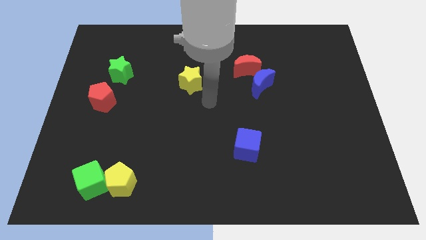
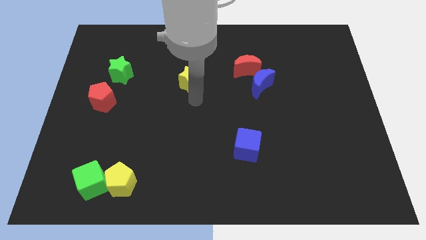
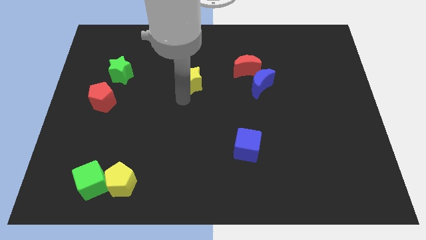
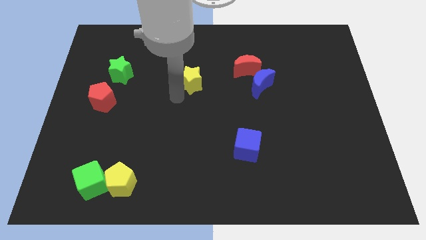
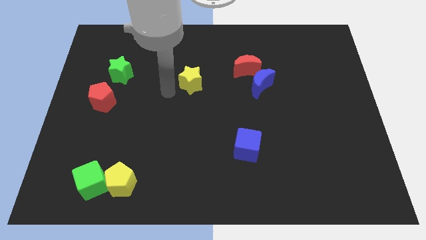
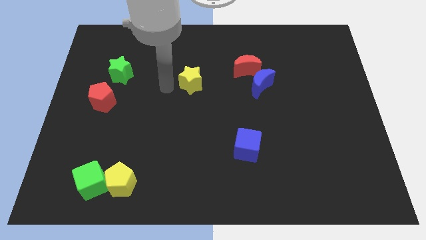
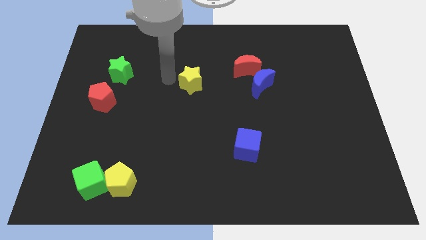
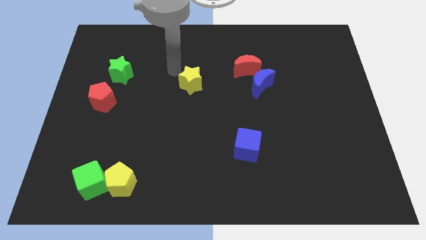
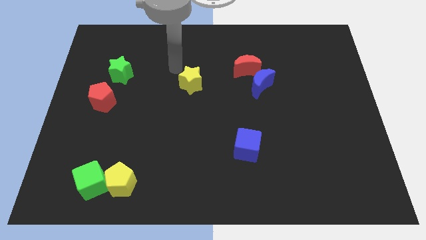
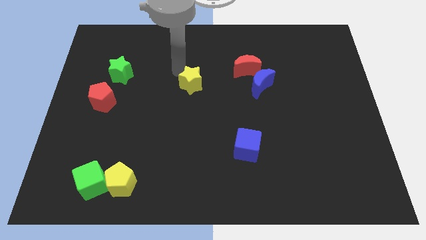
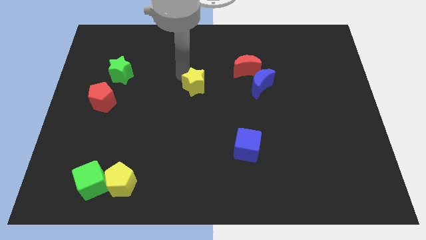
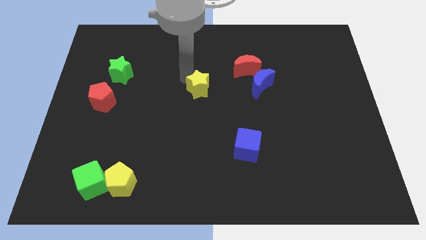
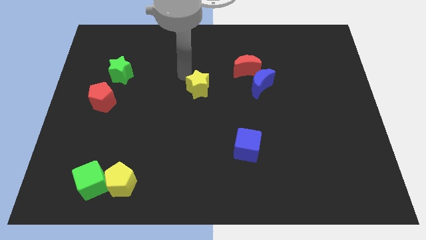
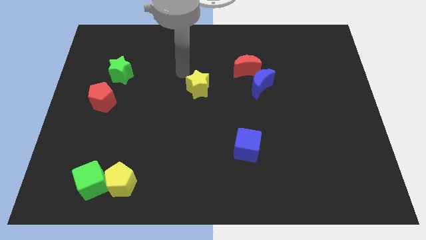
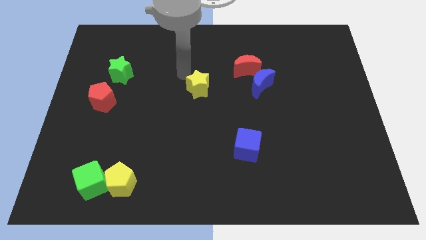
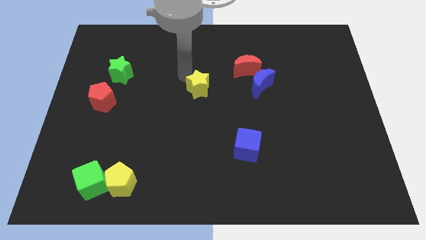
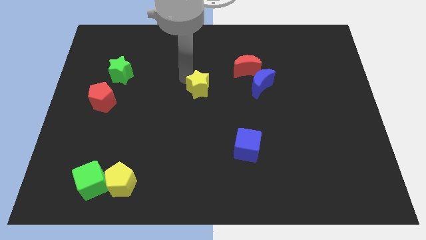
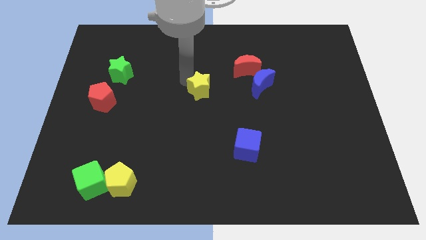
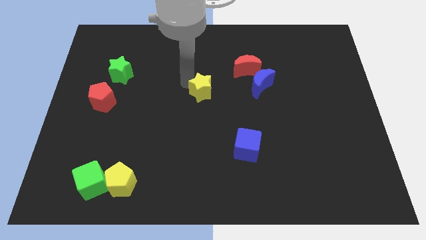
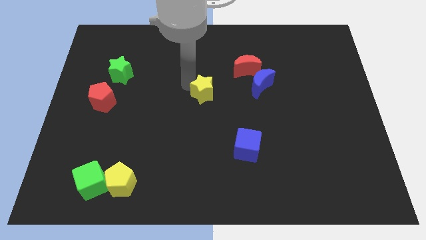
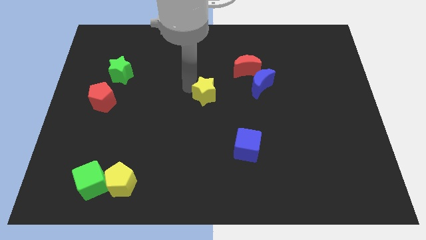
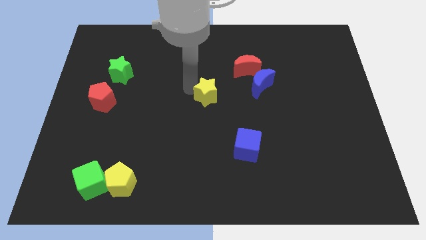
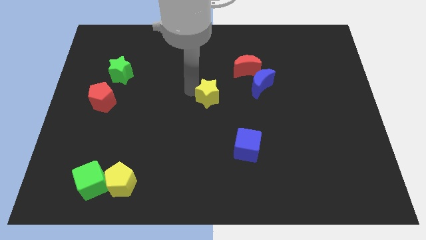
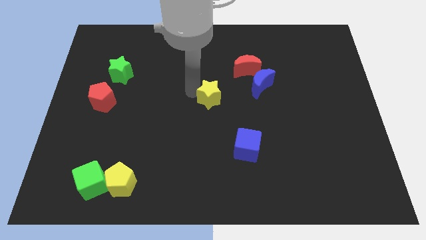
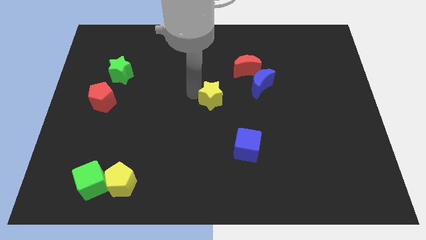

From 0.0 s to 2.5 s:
slide the yellow star diagonally downwards and right a little bit

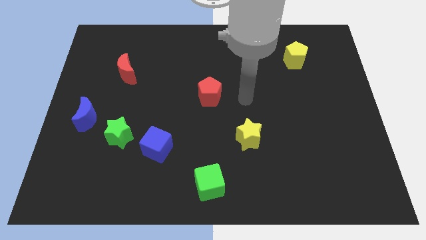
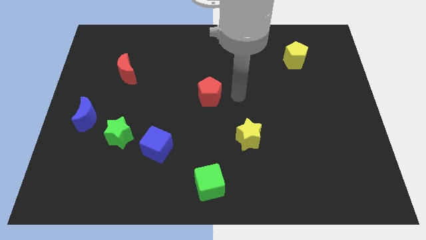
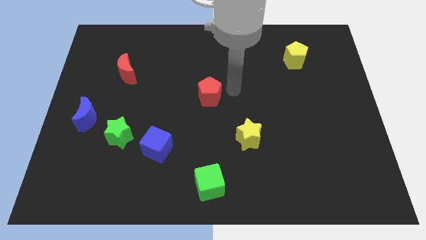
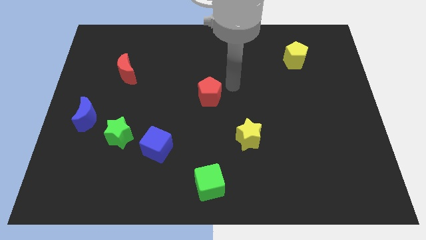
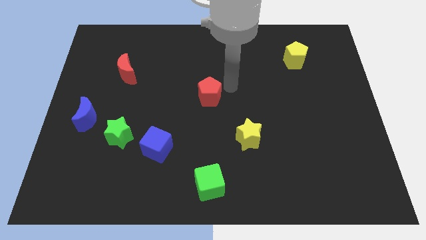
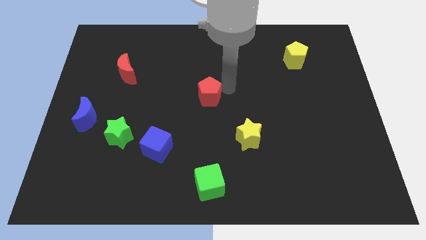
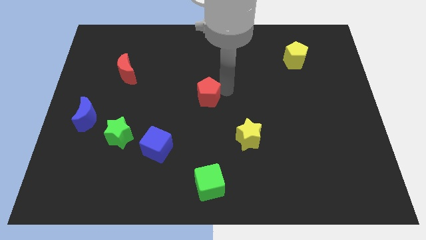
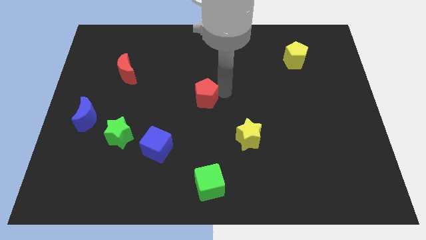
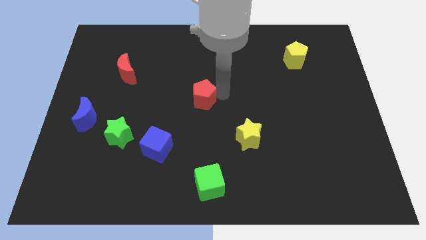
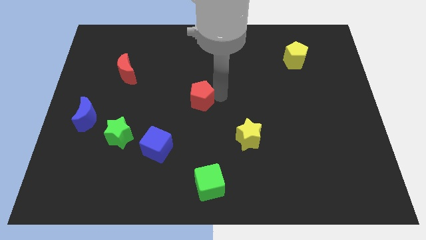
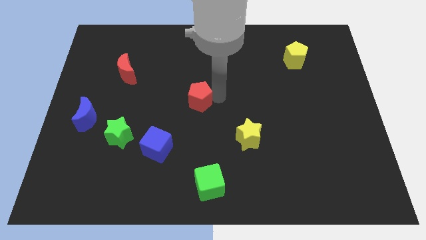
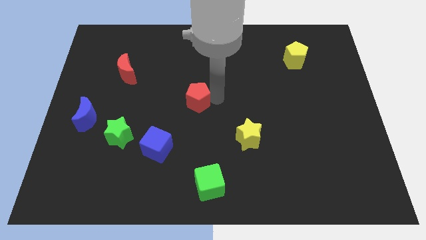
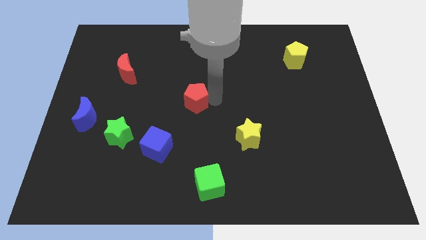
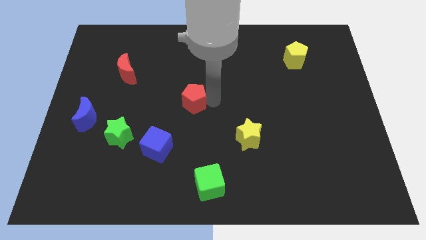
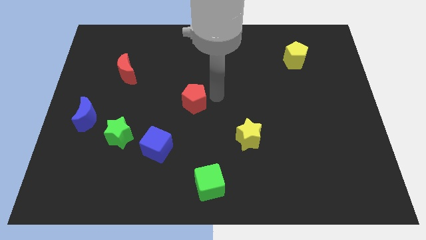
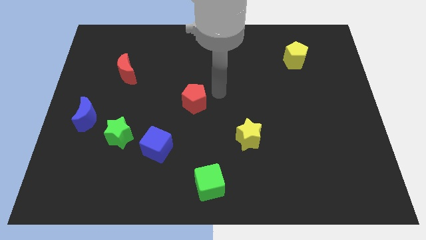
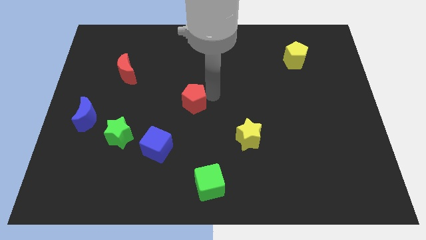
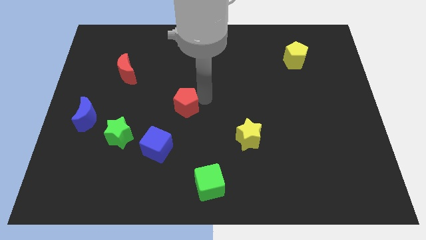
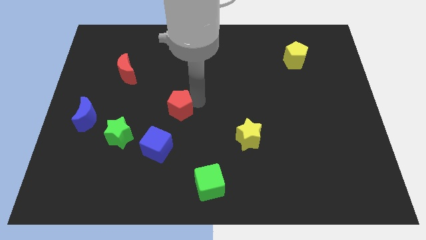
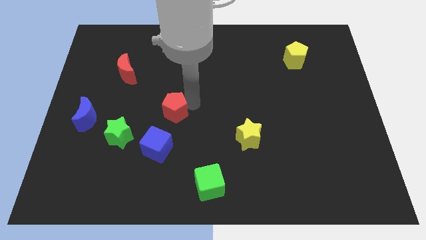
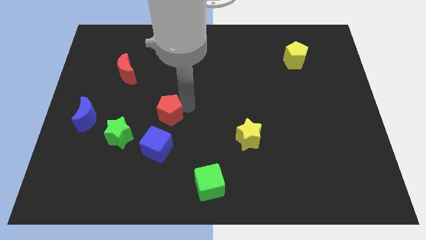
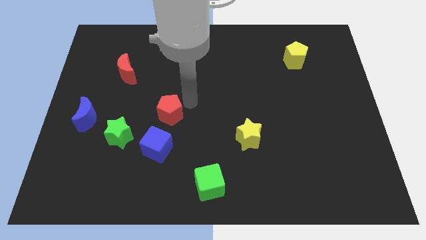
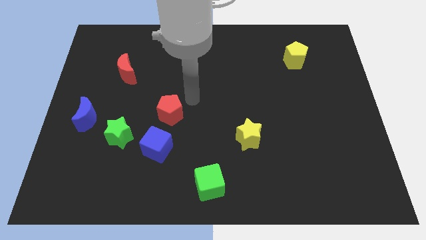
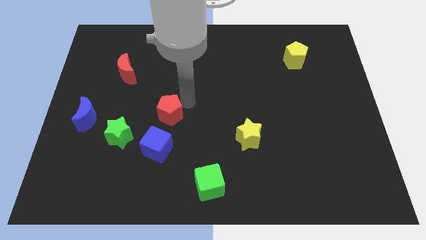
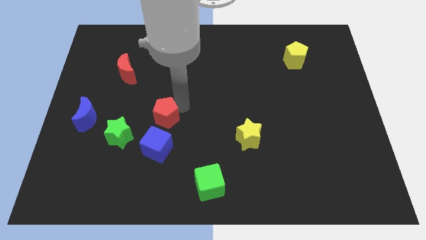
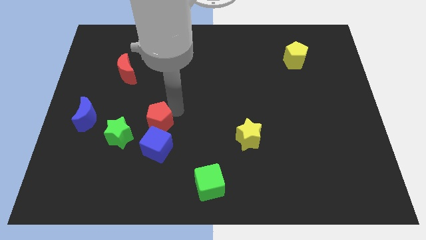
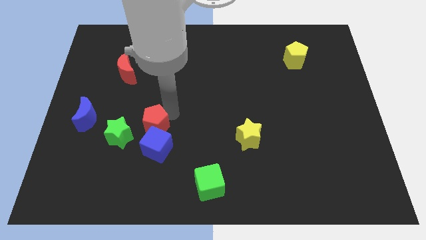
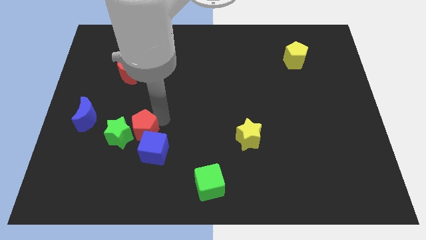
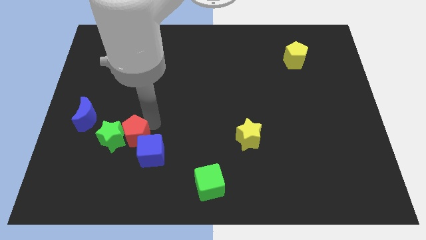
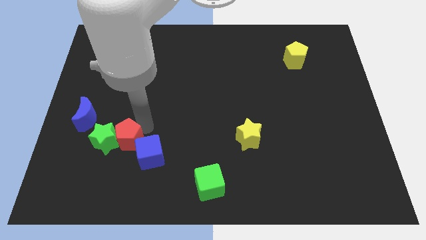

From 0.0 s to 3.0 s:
move the red pentagon down and left diagonally

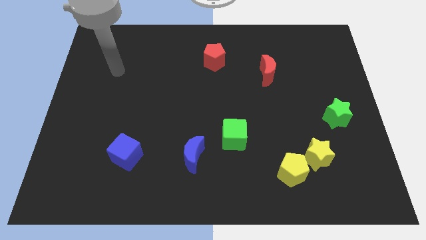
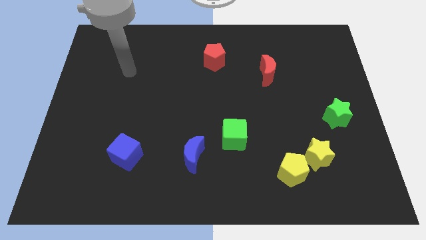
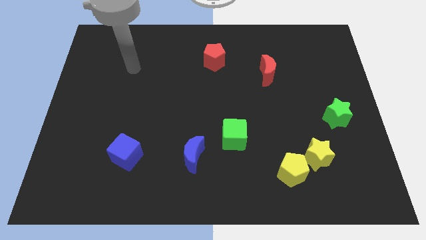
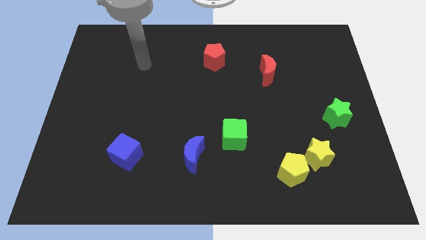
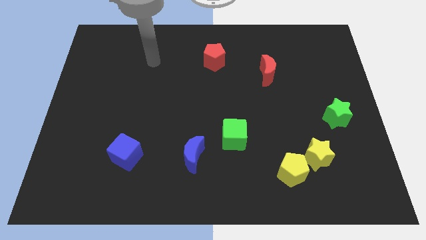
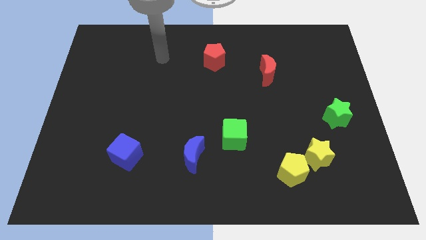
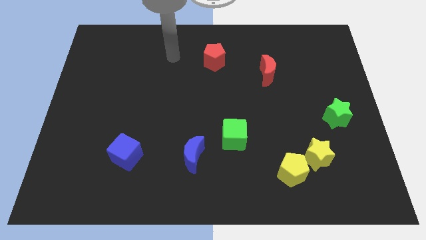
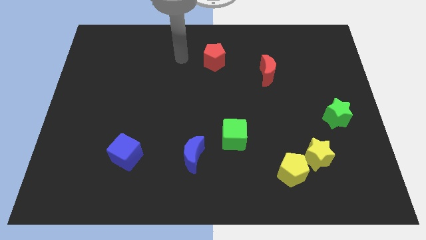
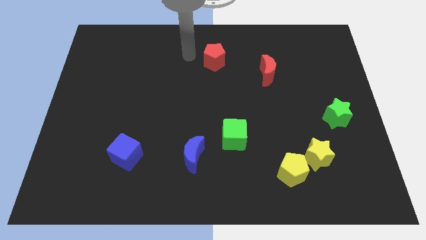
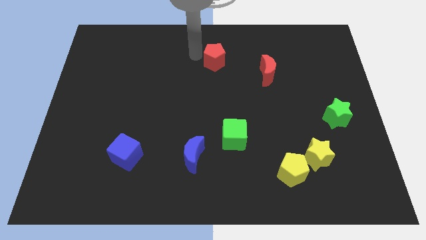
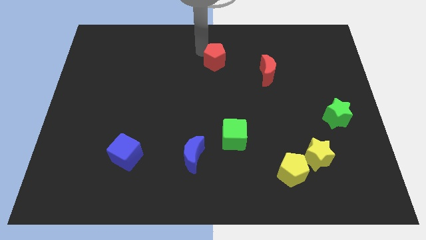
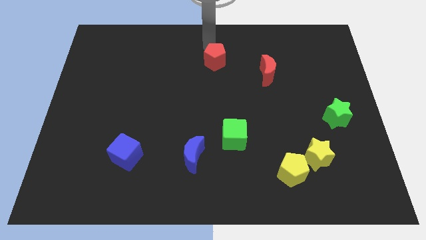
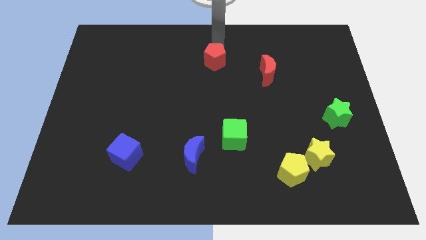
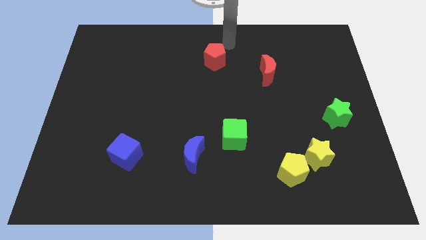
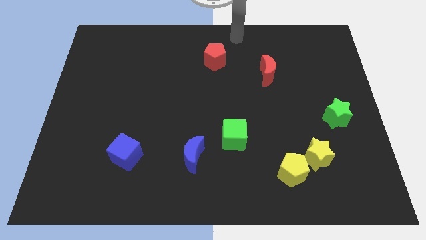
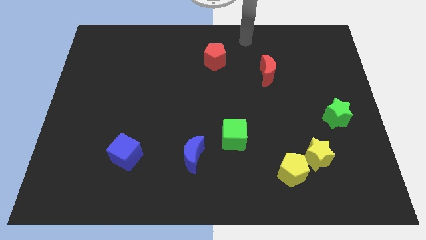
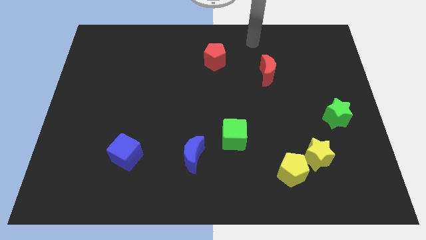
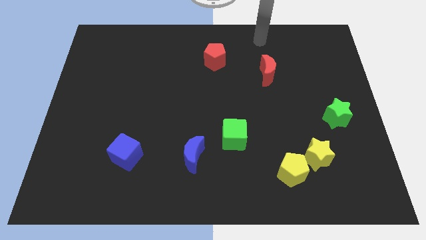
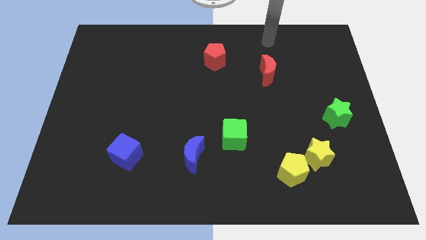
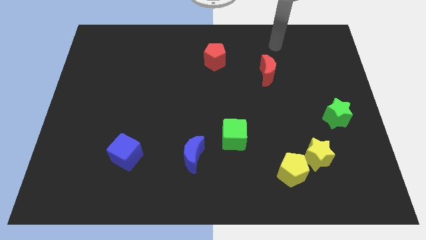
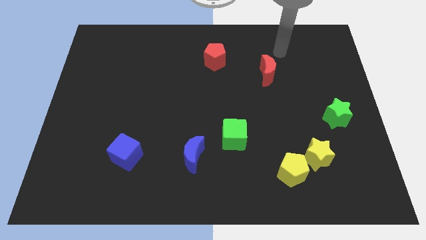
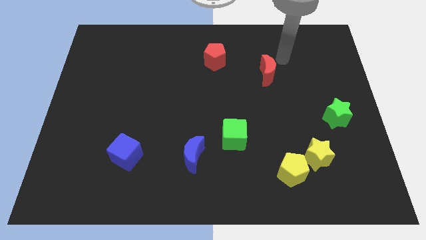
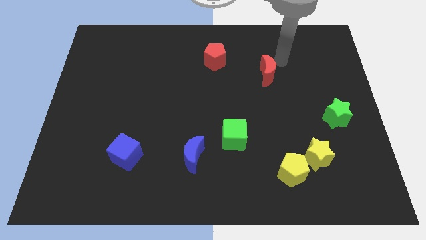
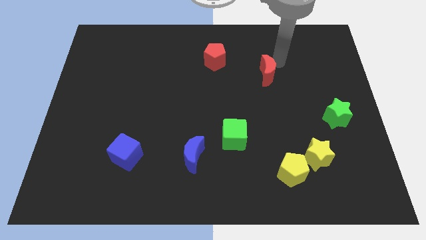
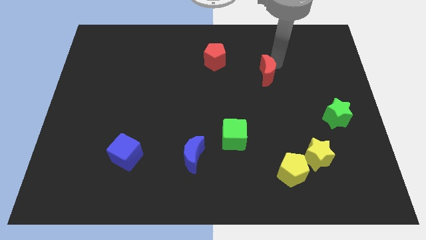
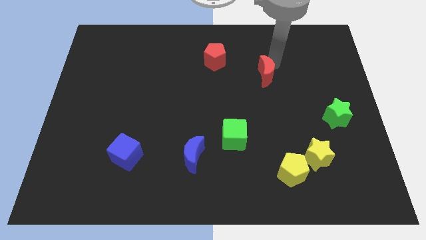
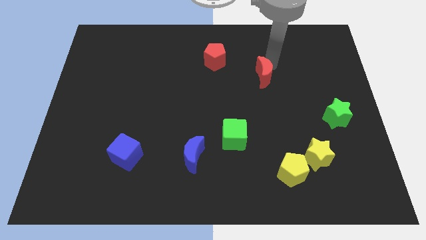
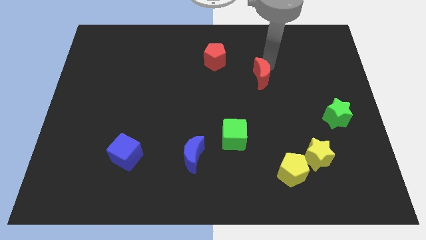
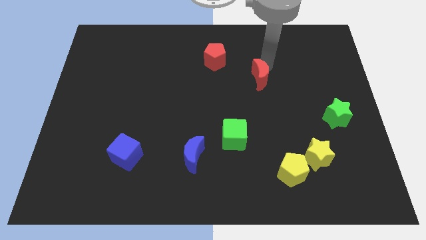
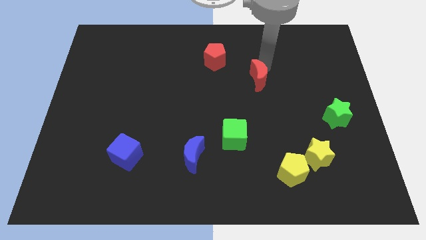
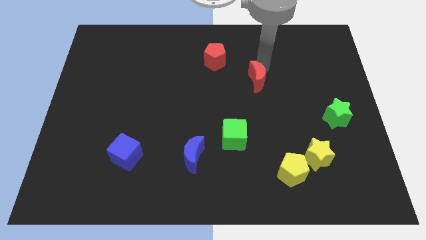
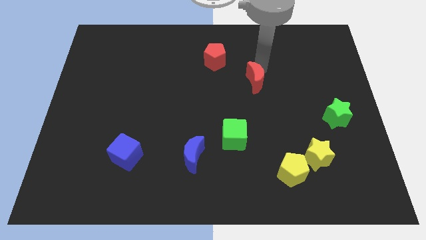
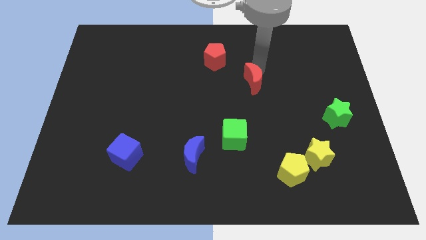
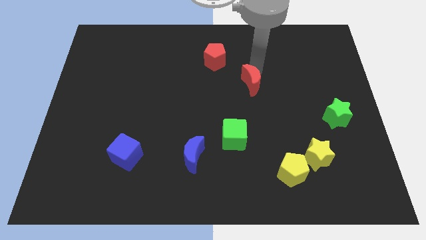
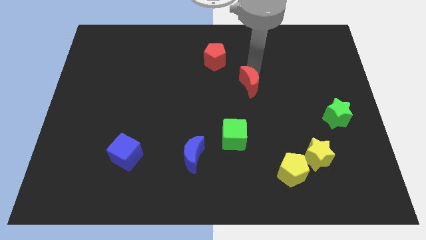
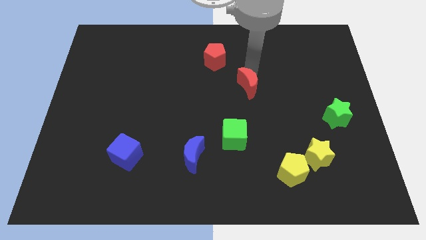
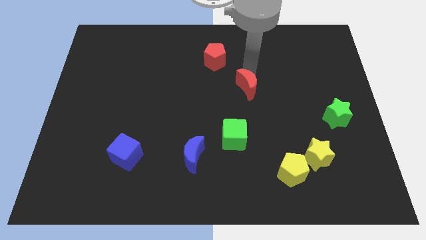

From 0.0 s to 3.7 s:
move the red moon somewhat downwards and to the left diagonally
